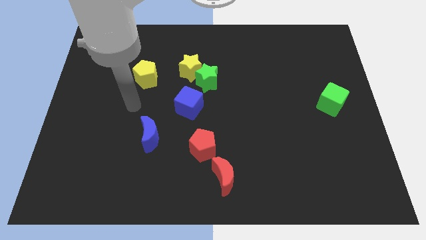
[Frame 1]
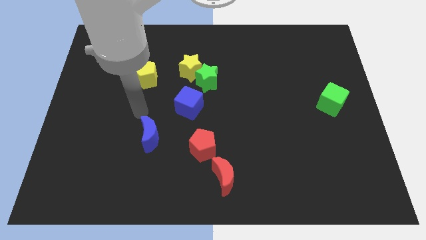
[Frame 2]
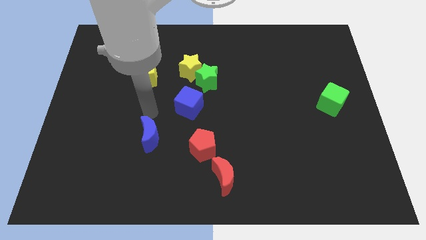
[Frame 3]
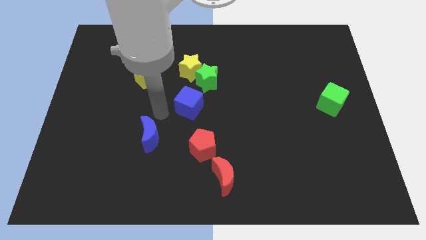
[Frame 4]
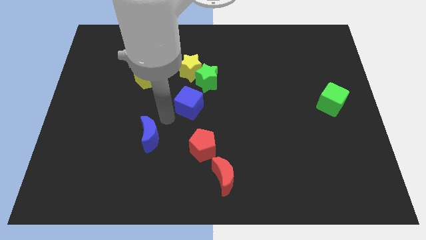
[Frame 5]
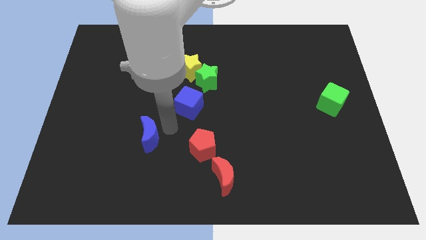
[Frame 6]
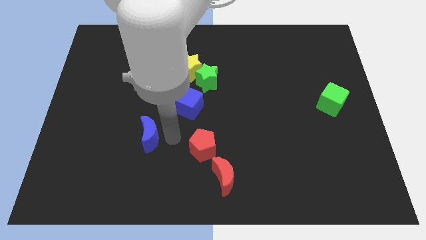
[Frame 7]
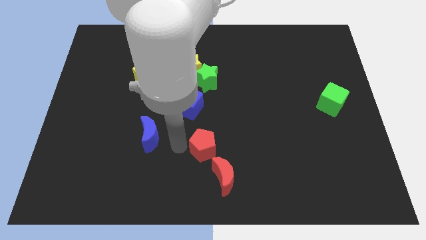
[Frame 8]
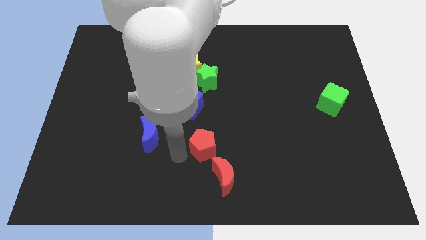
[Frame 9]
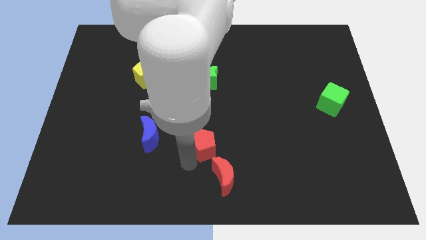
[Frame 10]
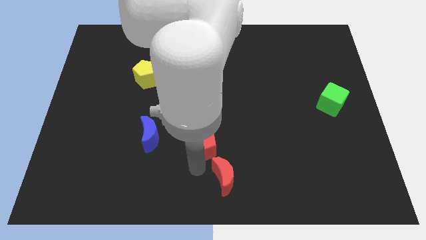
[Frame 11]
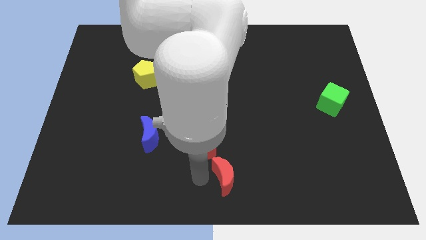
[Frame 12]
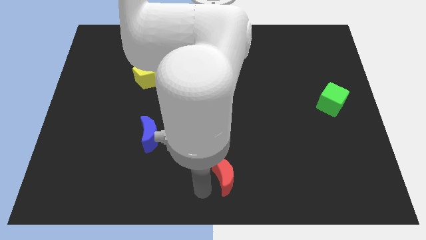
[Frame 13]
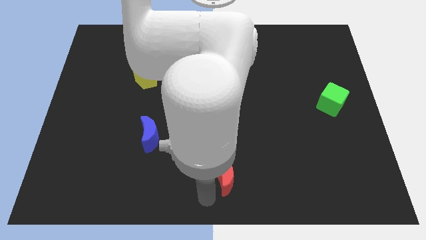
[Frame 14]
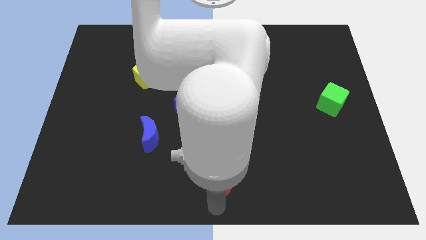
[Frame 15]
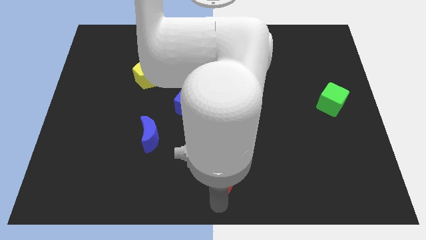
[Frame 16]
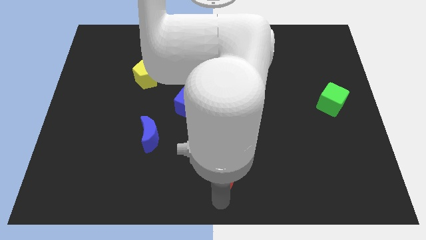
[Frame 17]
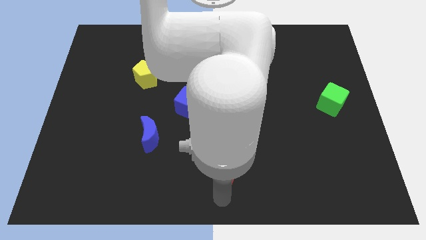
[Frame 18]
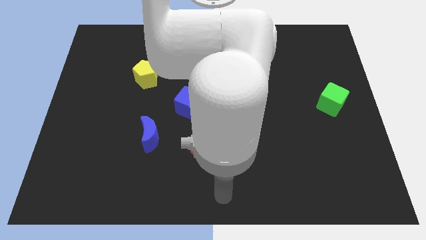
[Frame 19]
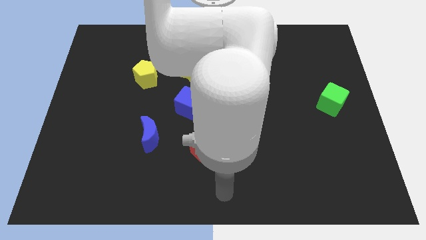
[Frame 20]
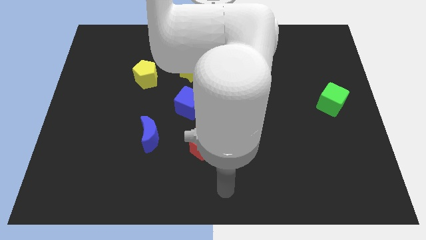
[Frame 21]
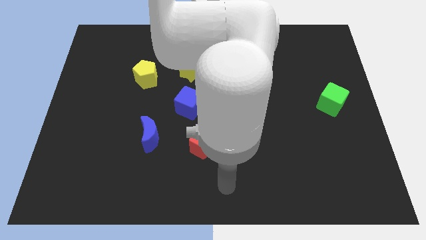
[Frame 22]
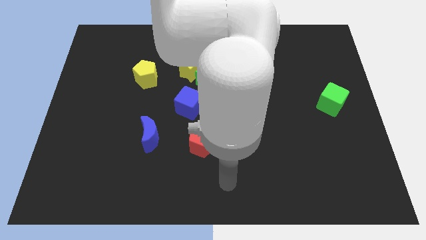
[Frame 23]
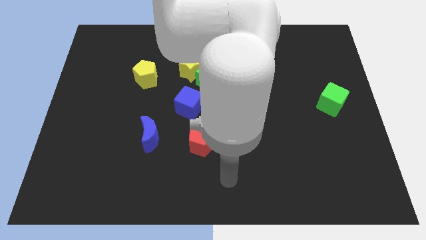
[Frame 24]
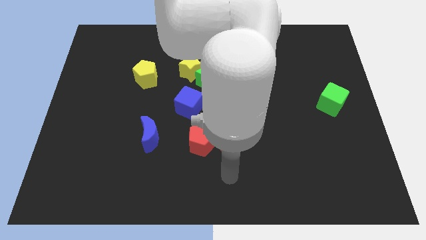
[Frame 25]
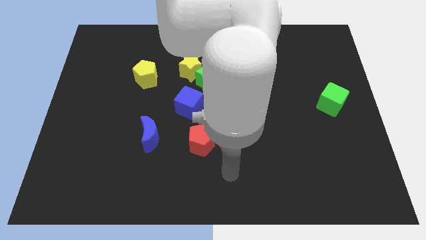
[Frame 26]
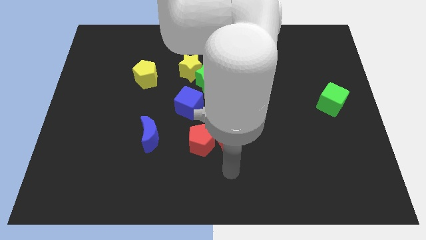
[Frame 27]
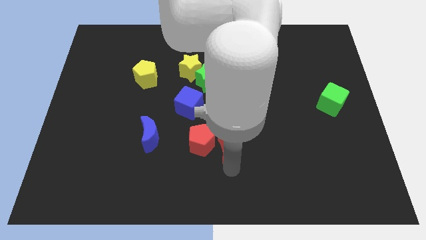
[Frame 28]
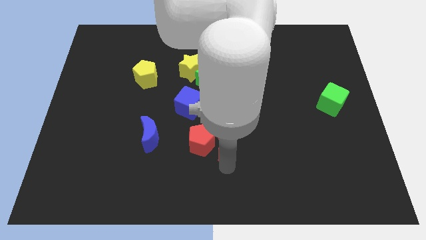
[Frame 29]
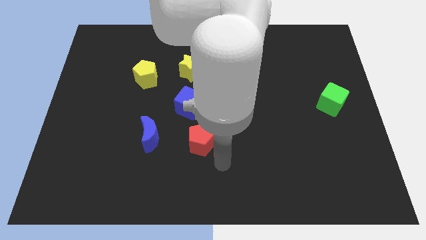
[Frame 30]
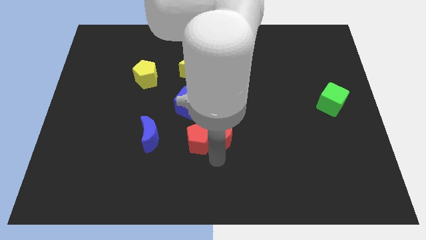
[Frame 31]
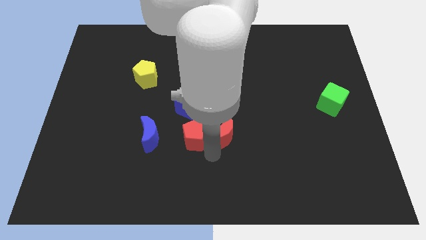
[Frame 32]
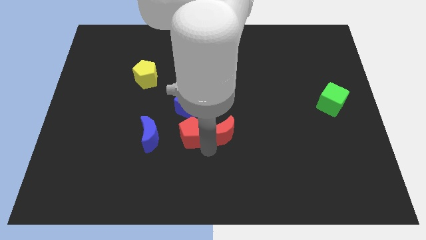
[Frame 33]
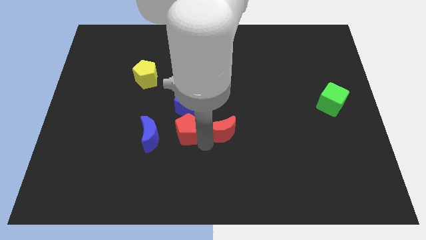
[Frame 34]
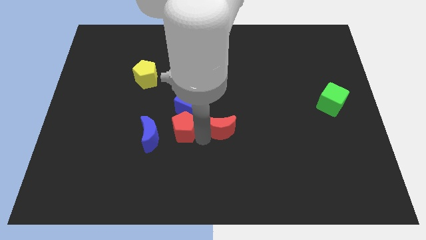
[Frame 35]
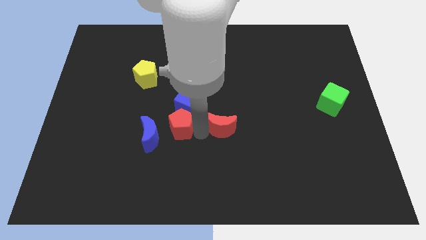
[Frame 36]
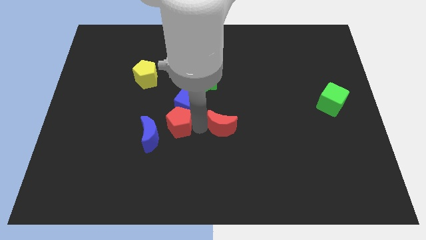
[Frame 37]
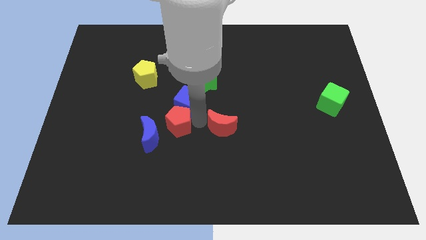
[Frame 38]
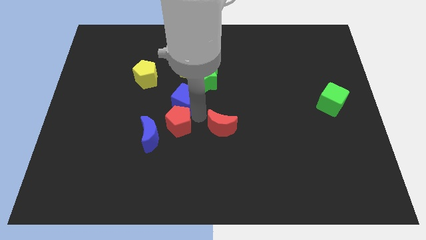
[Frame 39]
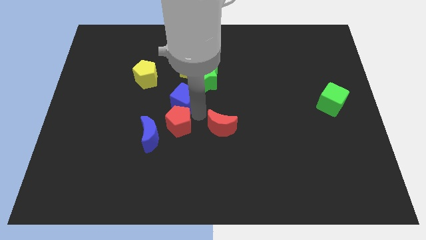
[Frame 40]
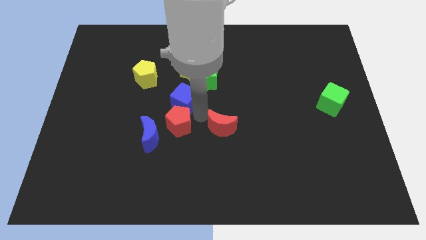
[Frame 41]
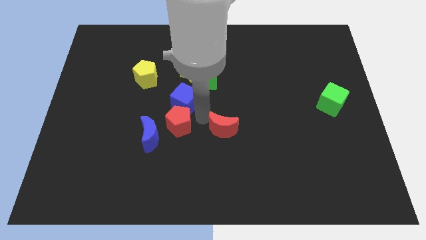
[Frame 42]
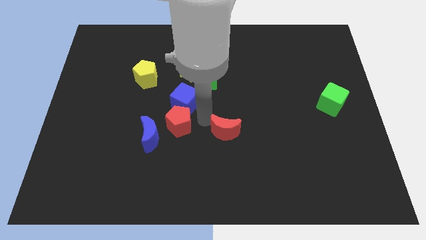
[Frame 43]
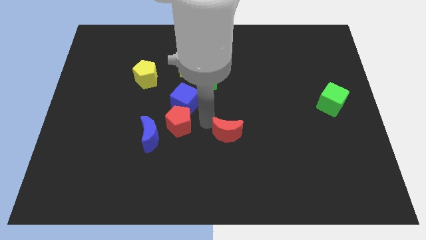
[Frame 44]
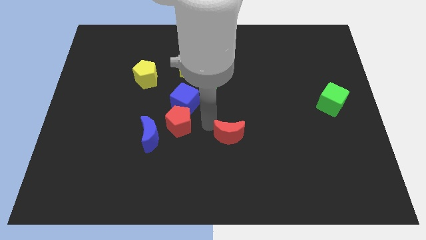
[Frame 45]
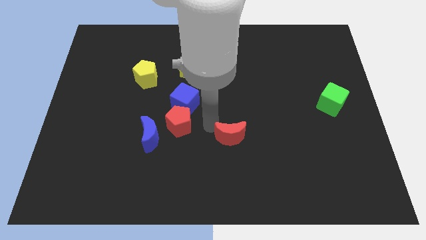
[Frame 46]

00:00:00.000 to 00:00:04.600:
move the red moon upwards and right a bit

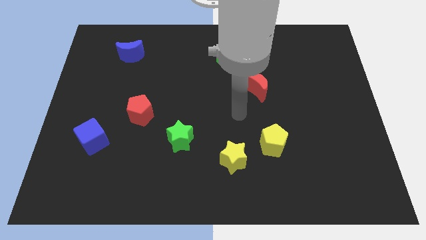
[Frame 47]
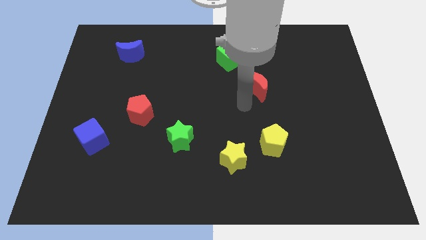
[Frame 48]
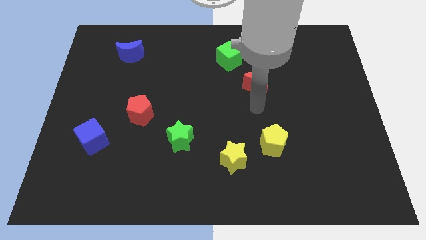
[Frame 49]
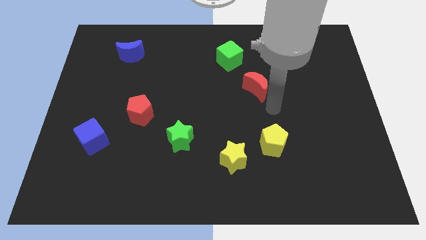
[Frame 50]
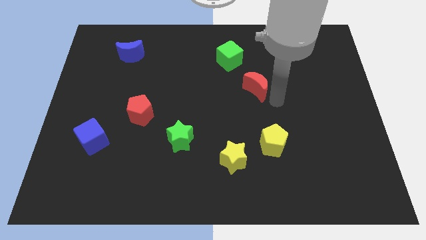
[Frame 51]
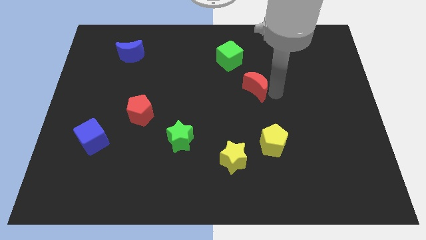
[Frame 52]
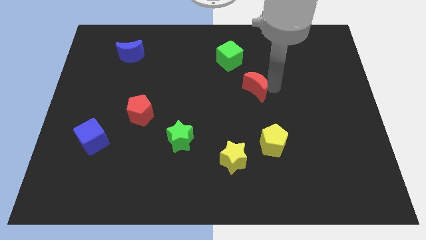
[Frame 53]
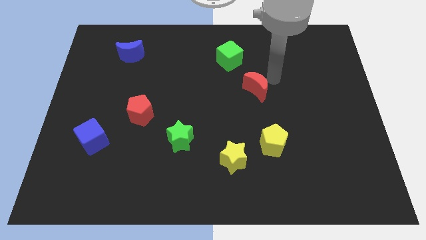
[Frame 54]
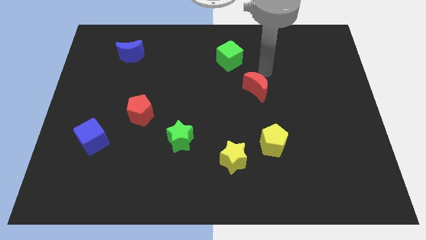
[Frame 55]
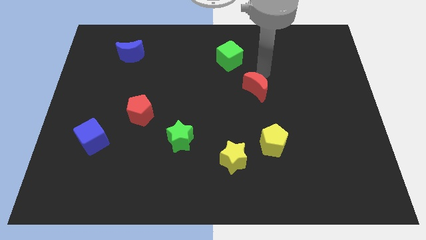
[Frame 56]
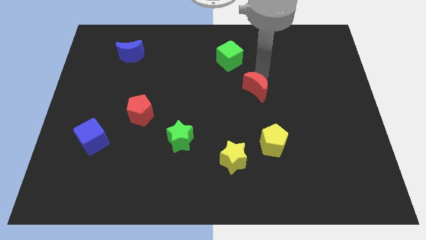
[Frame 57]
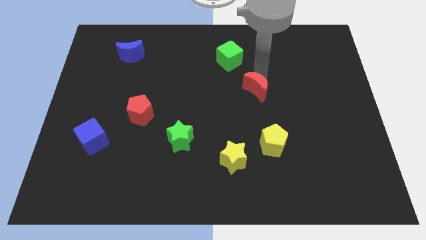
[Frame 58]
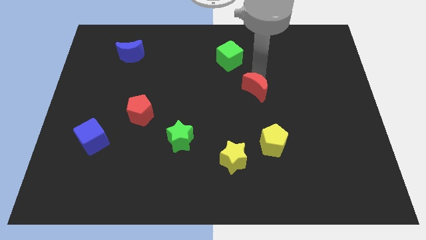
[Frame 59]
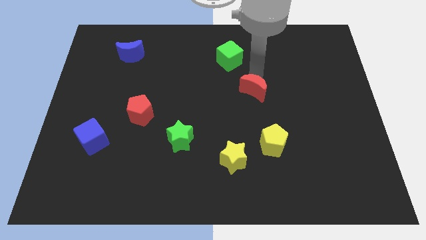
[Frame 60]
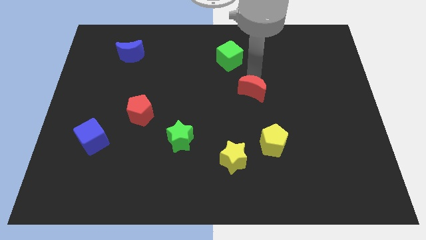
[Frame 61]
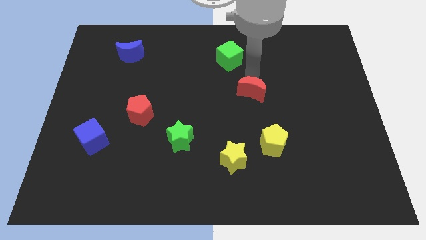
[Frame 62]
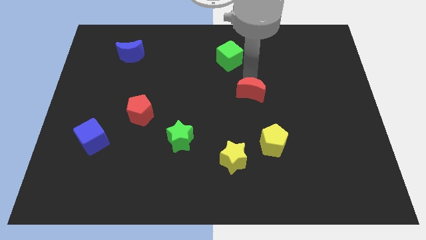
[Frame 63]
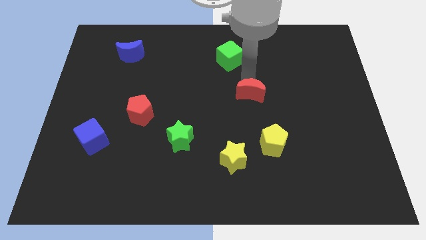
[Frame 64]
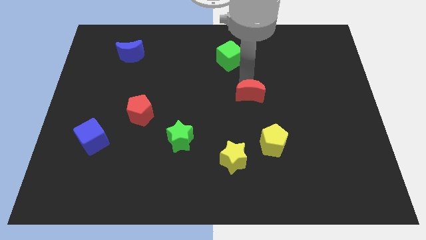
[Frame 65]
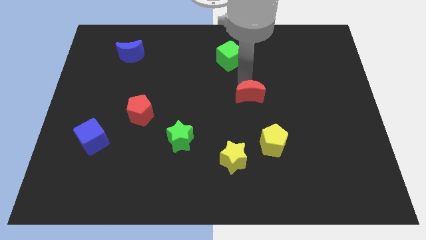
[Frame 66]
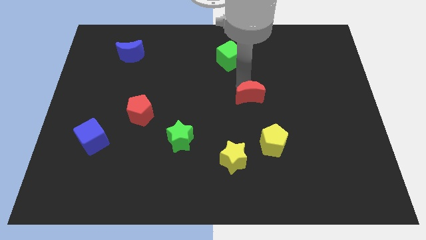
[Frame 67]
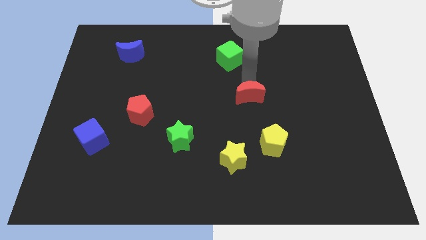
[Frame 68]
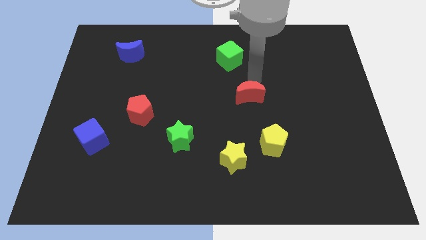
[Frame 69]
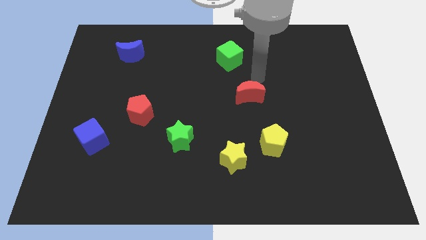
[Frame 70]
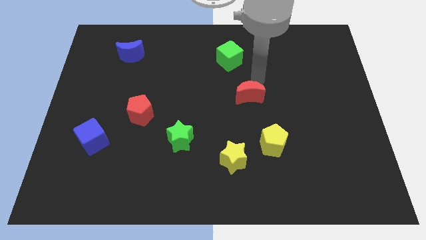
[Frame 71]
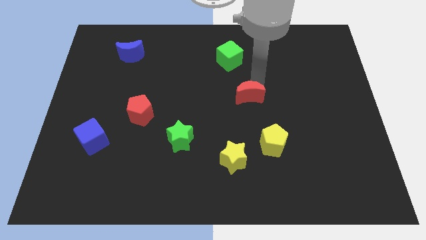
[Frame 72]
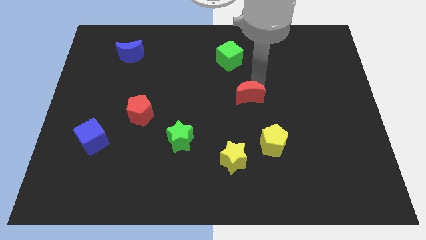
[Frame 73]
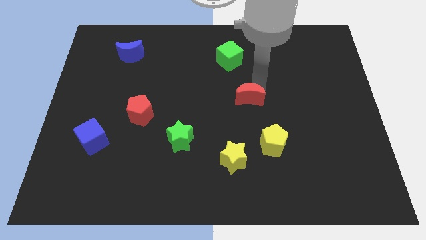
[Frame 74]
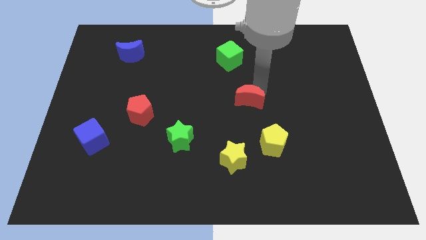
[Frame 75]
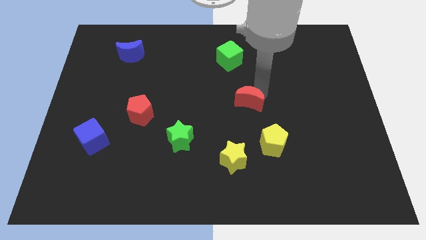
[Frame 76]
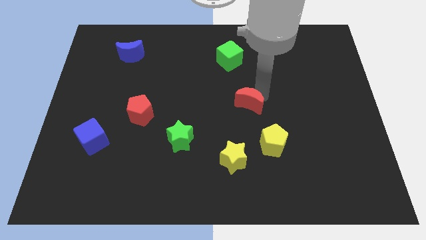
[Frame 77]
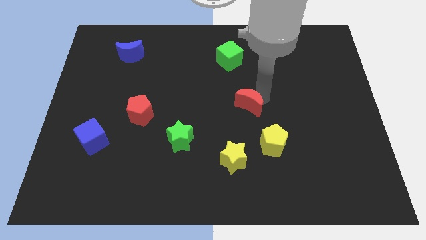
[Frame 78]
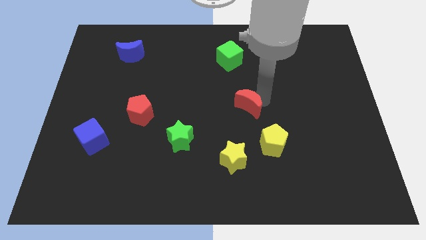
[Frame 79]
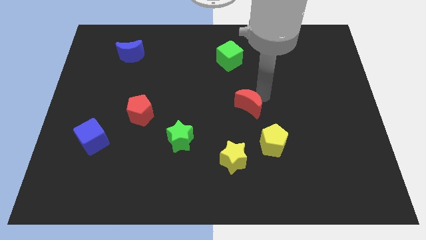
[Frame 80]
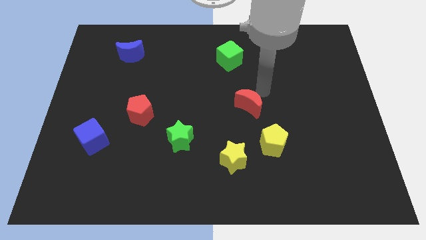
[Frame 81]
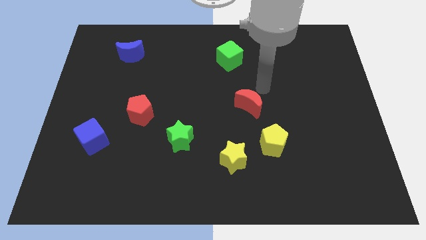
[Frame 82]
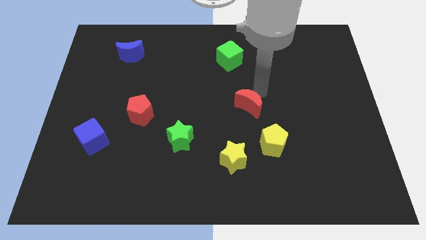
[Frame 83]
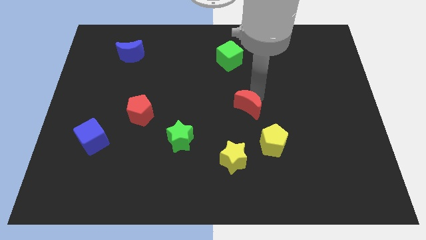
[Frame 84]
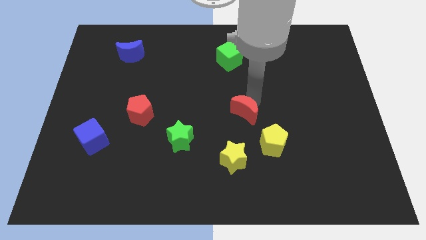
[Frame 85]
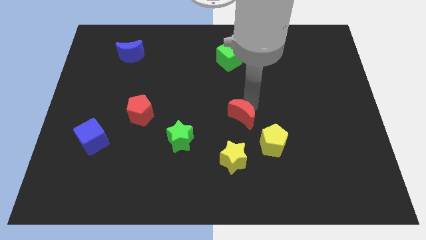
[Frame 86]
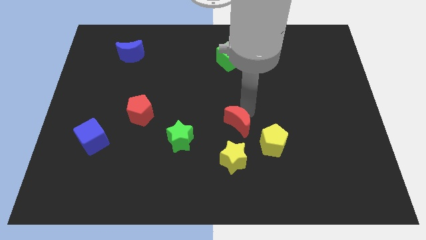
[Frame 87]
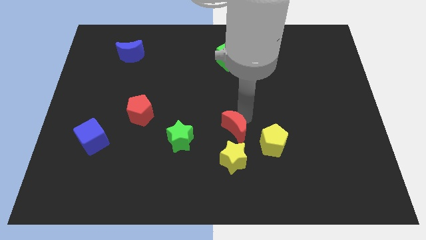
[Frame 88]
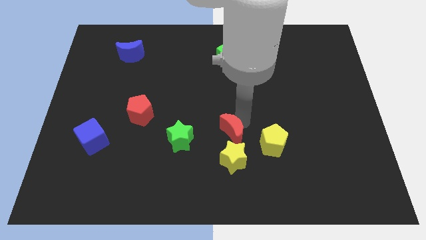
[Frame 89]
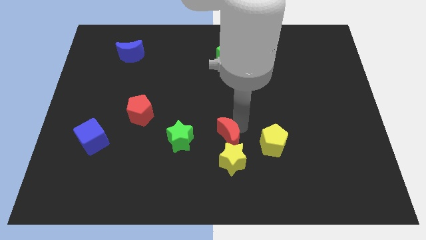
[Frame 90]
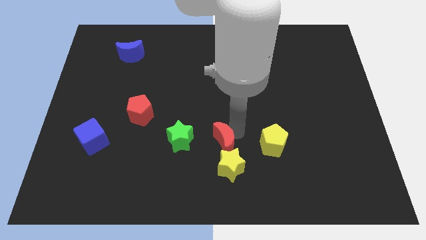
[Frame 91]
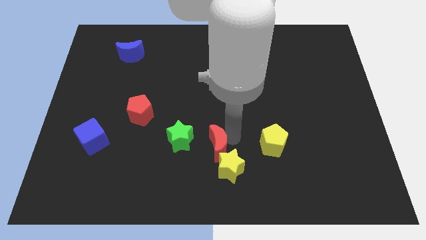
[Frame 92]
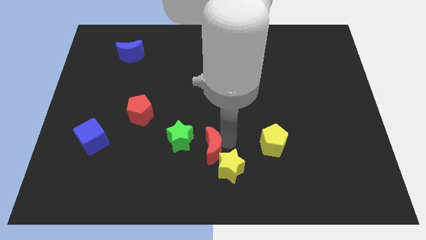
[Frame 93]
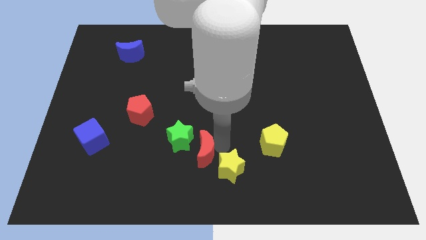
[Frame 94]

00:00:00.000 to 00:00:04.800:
slide the red moon downwards and then to the left
